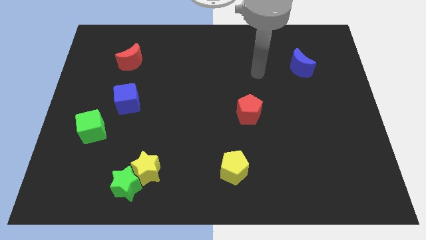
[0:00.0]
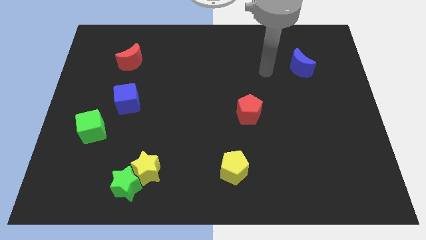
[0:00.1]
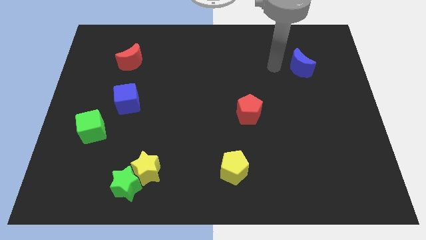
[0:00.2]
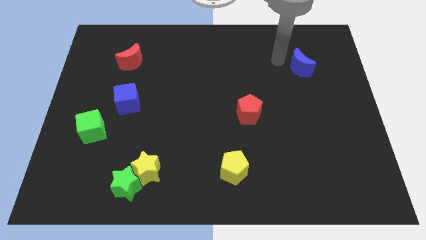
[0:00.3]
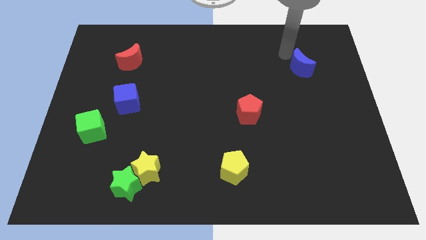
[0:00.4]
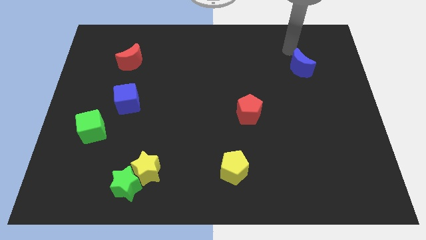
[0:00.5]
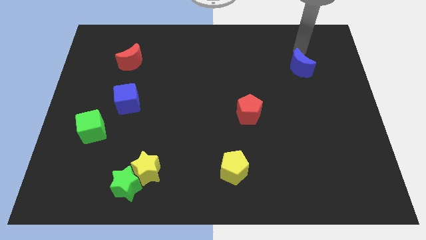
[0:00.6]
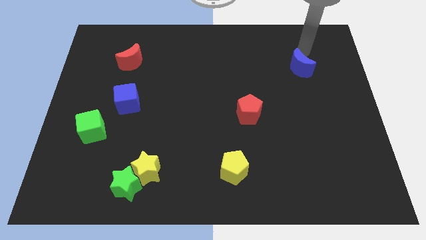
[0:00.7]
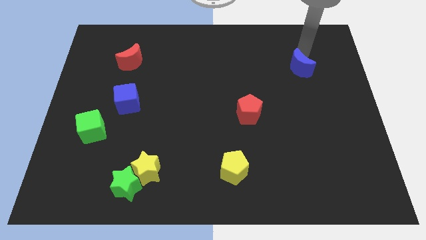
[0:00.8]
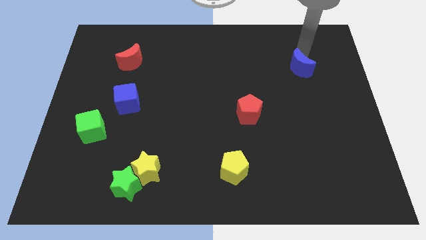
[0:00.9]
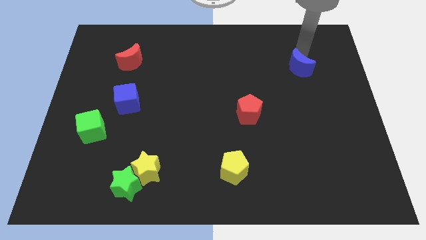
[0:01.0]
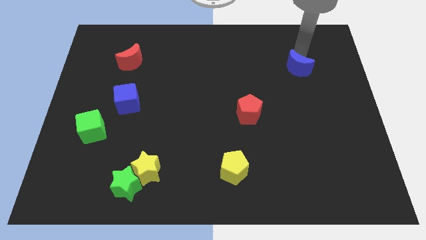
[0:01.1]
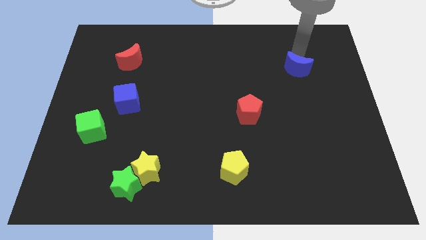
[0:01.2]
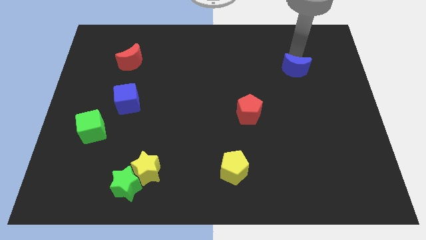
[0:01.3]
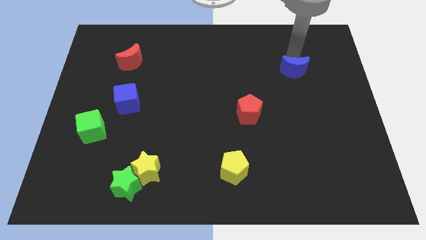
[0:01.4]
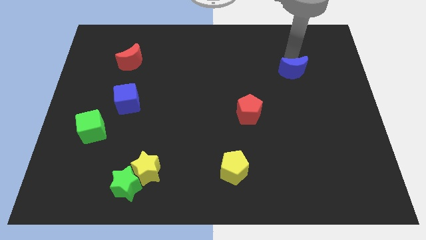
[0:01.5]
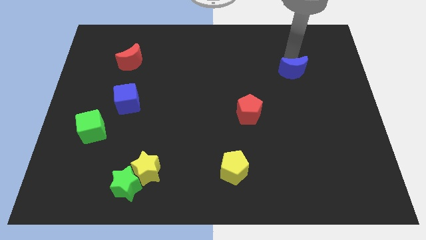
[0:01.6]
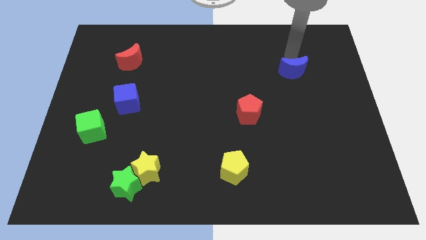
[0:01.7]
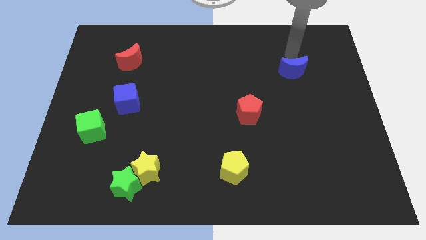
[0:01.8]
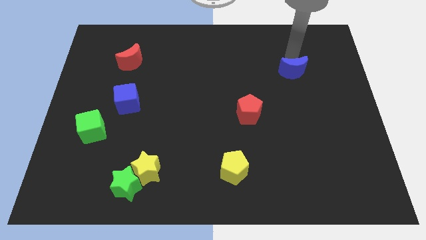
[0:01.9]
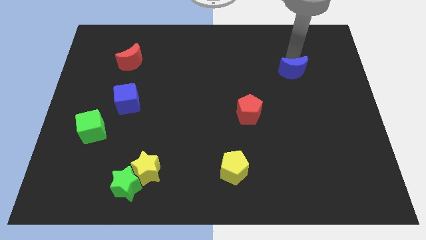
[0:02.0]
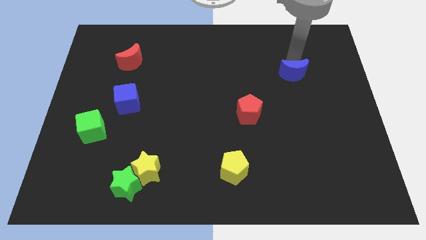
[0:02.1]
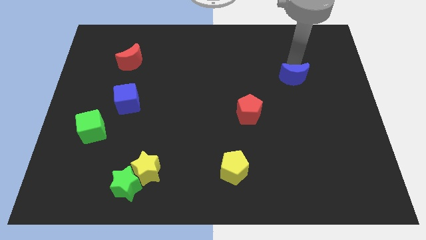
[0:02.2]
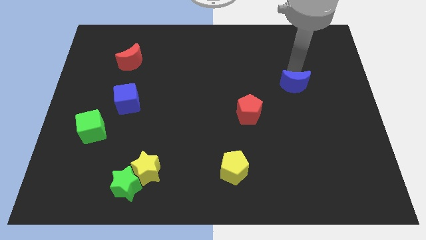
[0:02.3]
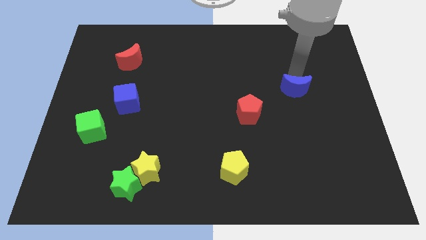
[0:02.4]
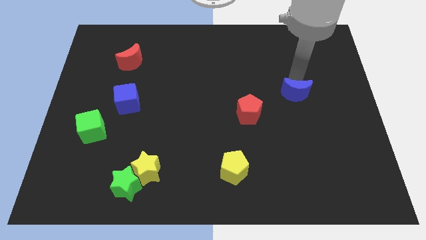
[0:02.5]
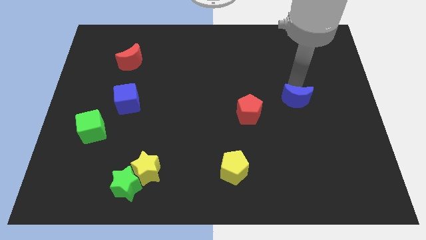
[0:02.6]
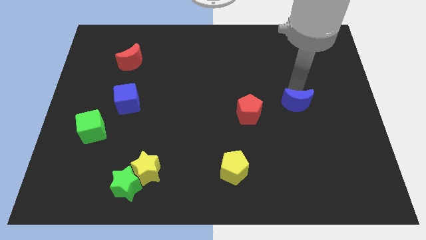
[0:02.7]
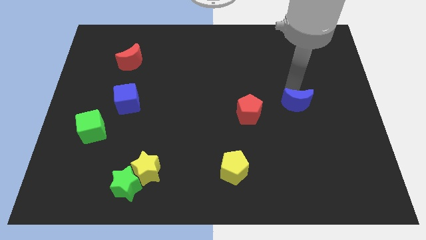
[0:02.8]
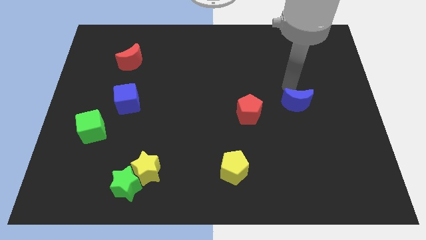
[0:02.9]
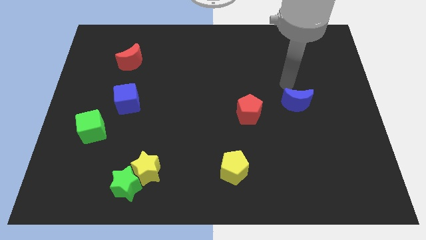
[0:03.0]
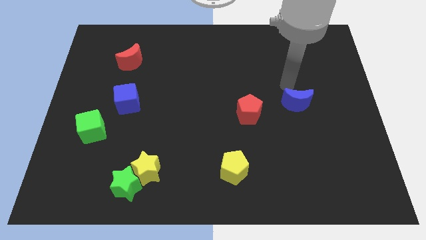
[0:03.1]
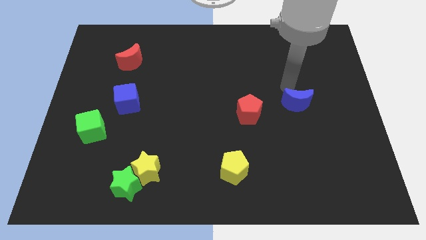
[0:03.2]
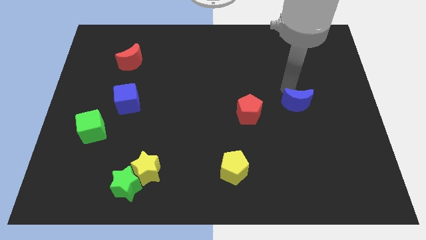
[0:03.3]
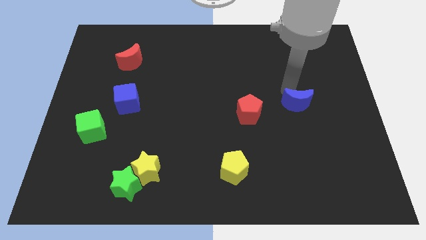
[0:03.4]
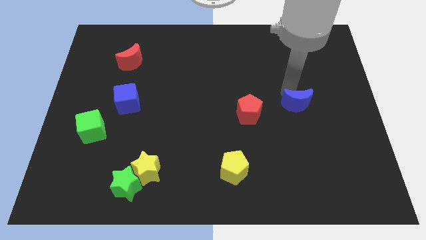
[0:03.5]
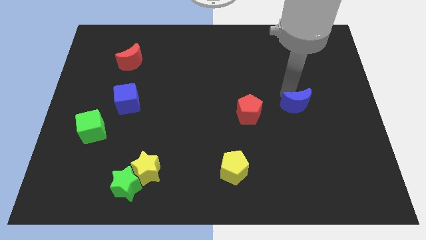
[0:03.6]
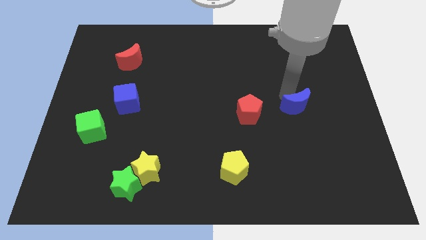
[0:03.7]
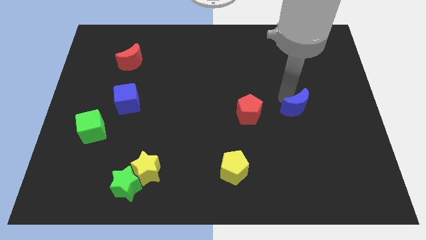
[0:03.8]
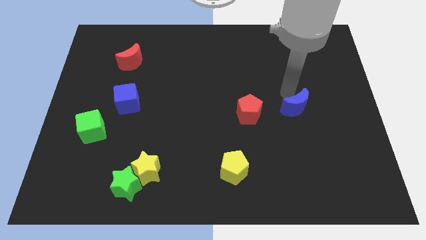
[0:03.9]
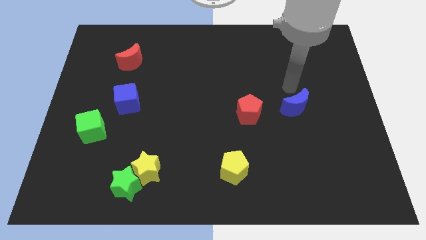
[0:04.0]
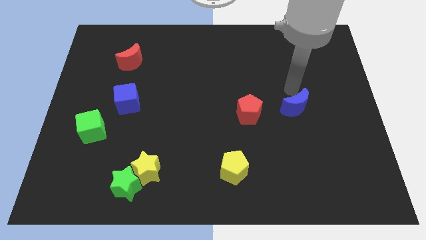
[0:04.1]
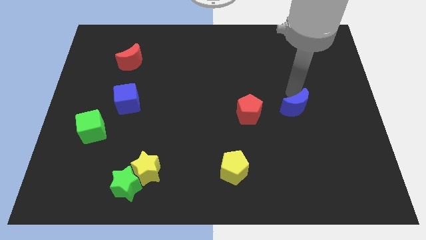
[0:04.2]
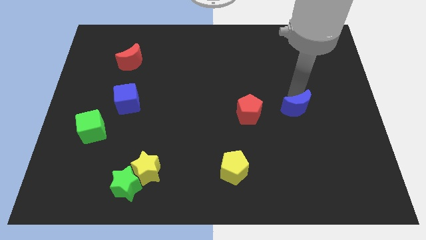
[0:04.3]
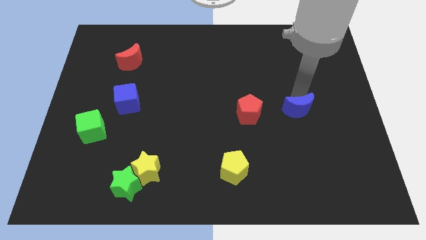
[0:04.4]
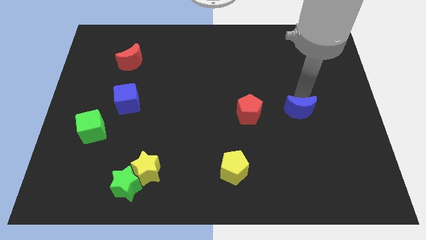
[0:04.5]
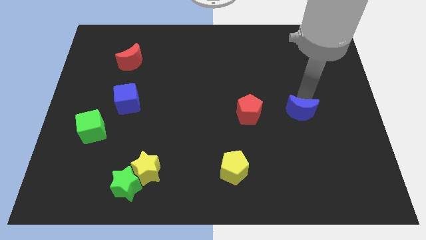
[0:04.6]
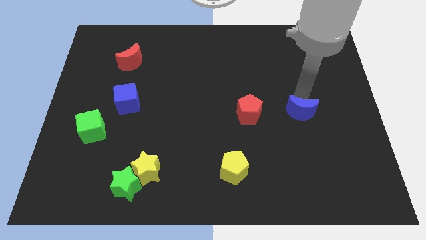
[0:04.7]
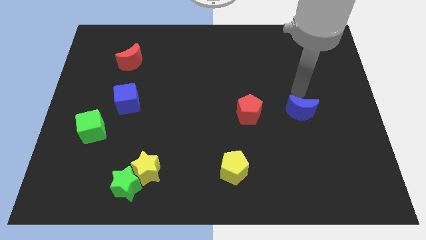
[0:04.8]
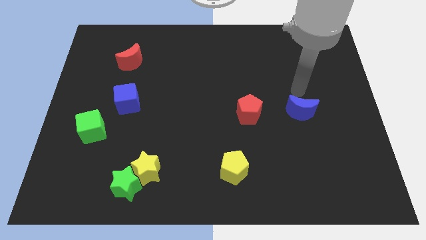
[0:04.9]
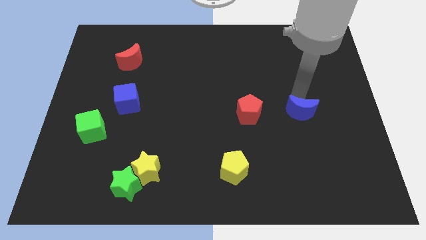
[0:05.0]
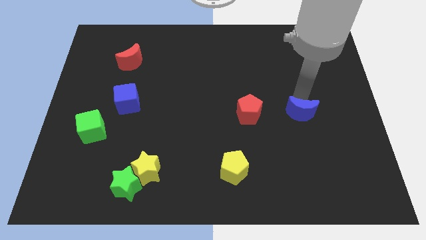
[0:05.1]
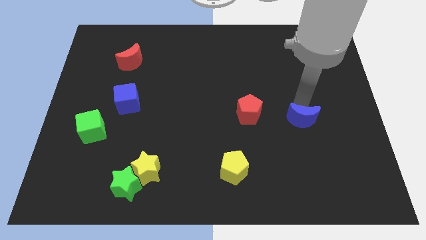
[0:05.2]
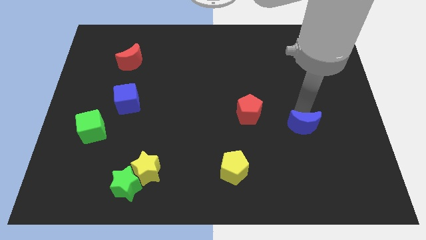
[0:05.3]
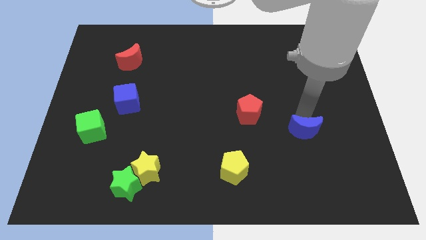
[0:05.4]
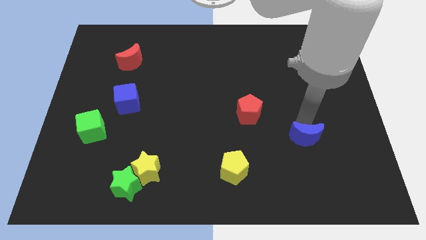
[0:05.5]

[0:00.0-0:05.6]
slide the blue moon downwards

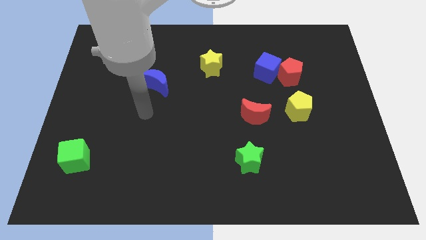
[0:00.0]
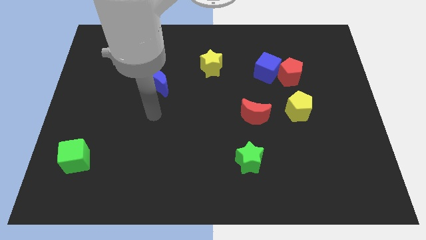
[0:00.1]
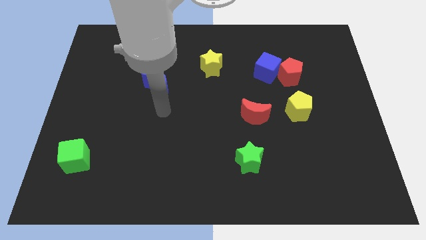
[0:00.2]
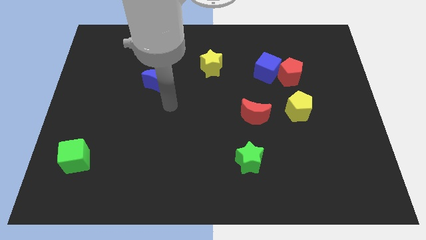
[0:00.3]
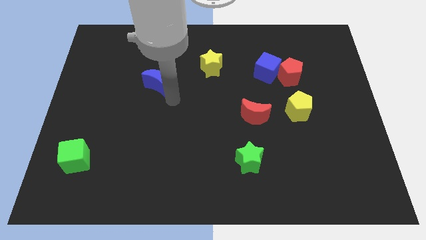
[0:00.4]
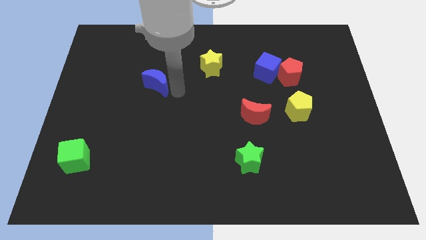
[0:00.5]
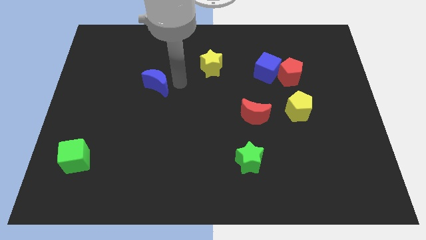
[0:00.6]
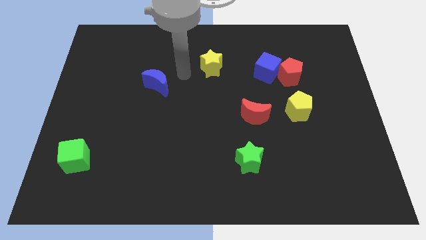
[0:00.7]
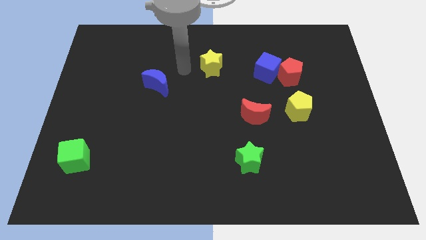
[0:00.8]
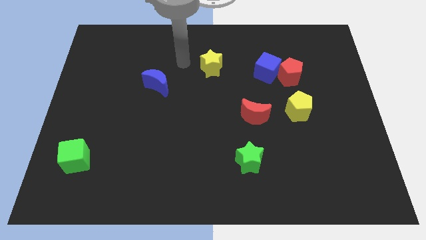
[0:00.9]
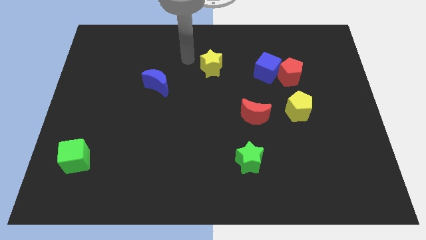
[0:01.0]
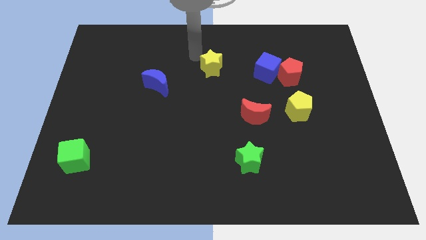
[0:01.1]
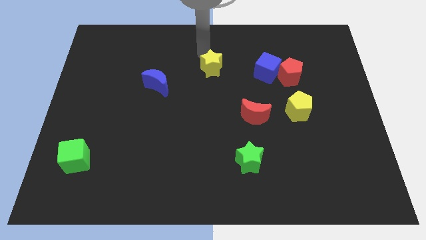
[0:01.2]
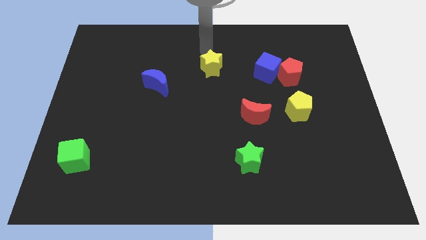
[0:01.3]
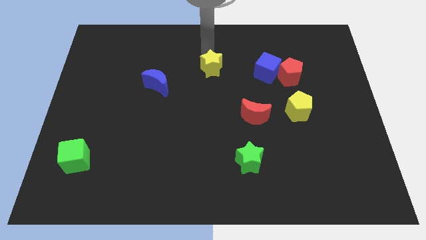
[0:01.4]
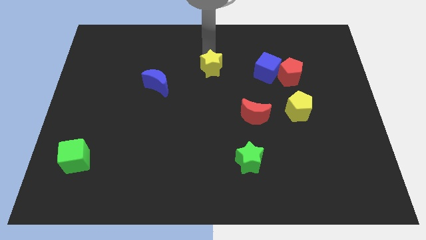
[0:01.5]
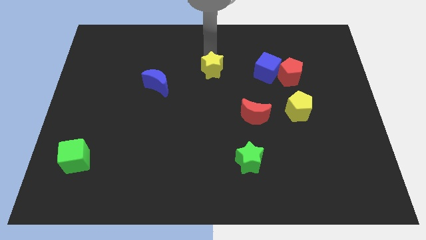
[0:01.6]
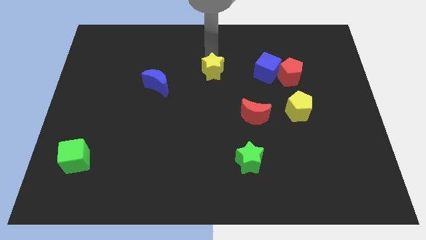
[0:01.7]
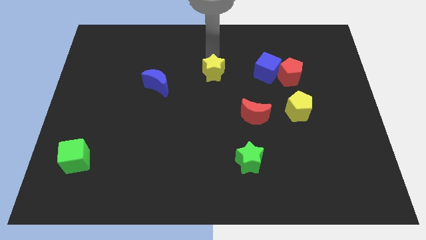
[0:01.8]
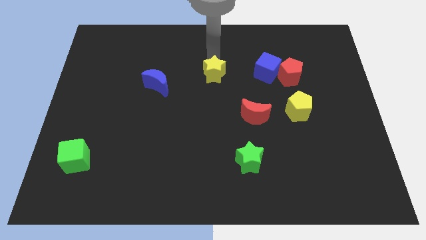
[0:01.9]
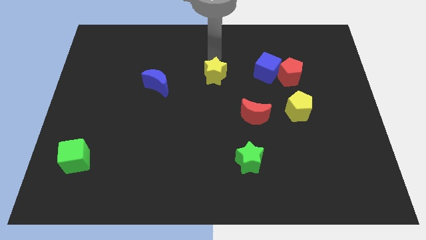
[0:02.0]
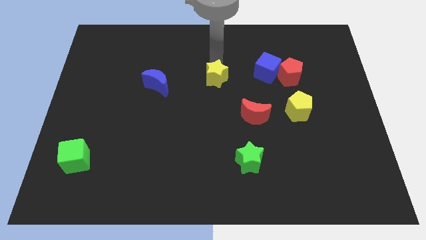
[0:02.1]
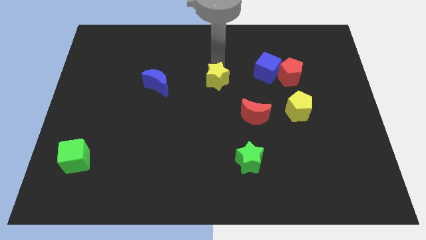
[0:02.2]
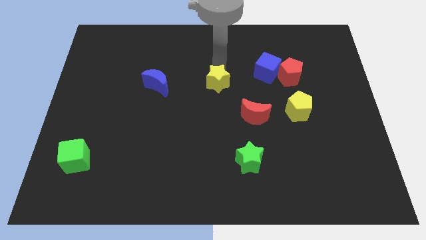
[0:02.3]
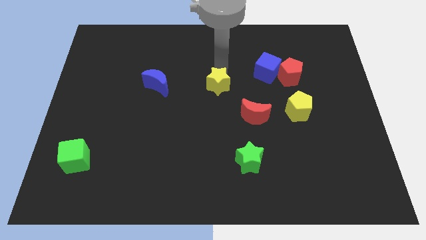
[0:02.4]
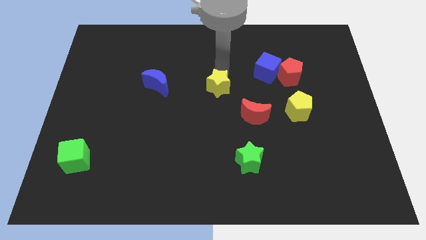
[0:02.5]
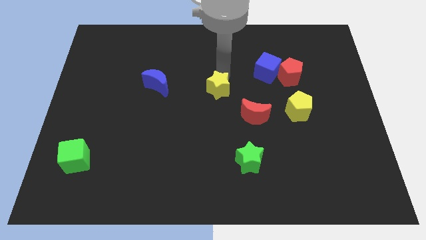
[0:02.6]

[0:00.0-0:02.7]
push the yellow star a bit down
